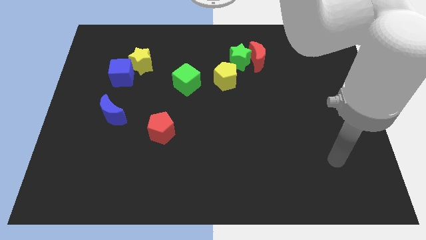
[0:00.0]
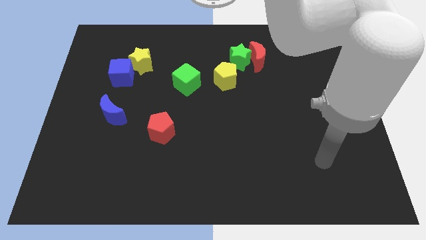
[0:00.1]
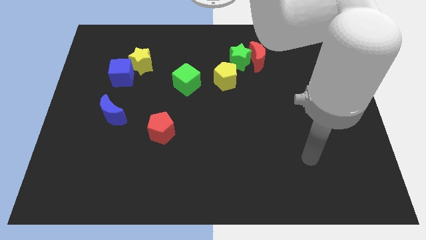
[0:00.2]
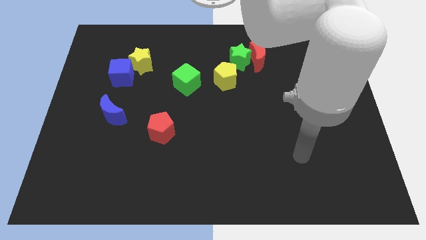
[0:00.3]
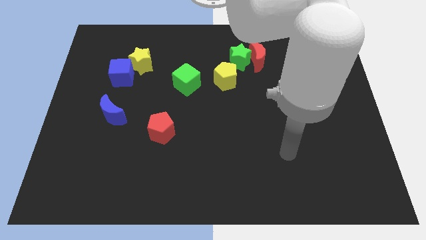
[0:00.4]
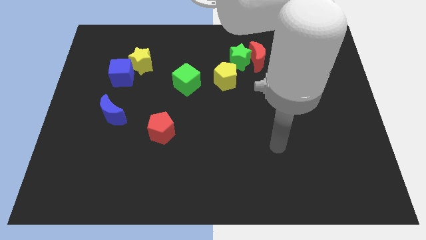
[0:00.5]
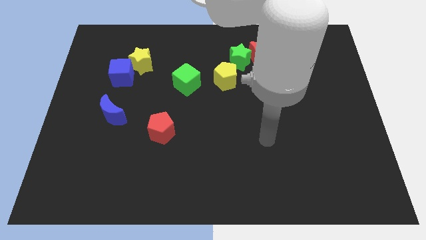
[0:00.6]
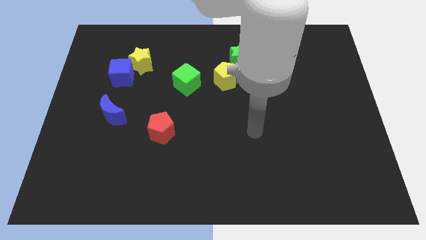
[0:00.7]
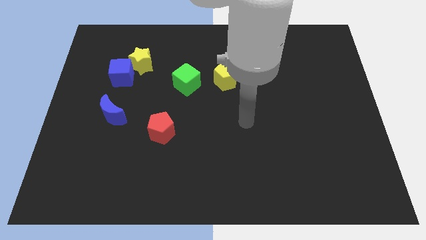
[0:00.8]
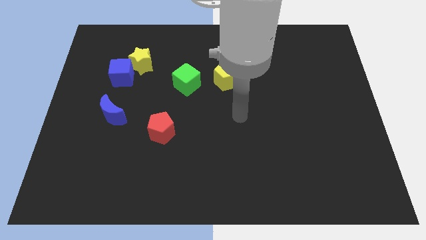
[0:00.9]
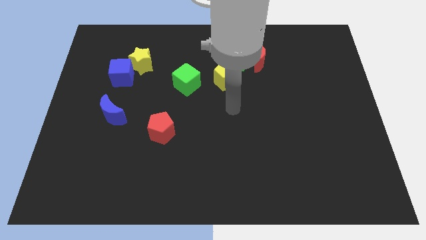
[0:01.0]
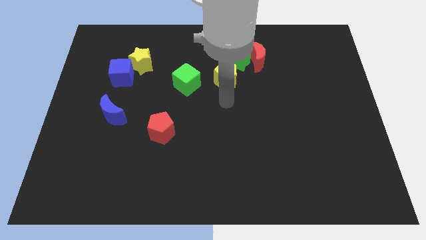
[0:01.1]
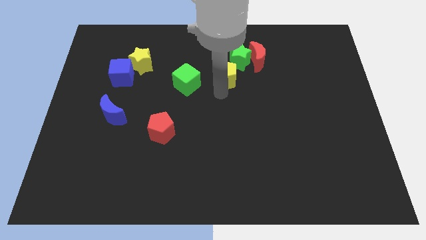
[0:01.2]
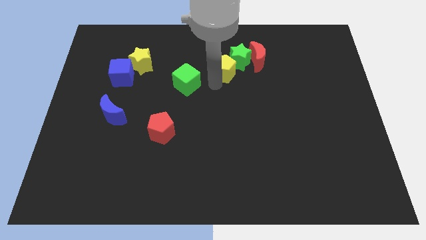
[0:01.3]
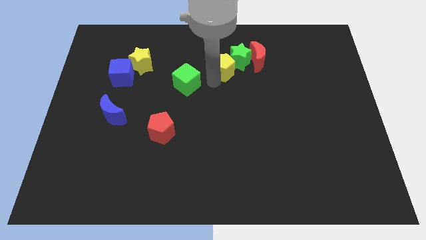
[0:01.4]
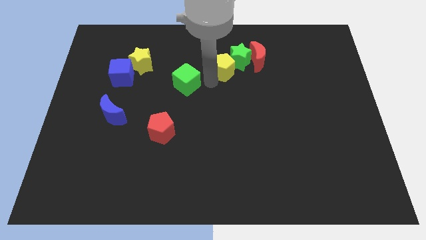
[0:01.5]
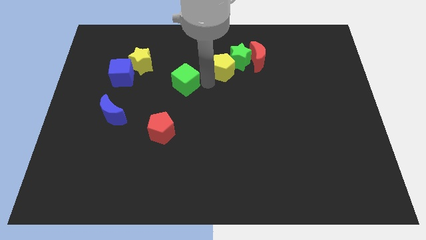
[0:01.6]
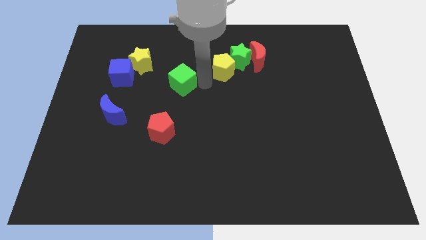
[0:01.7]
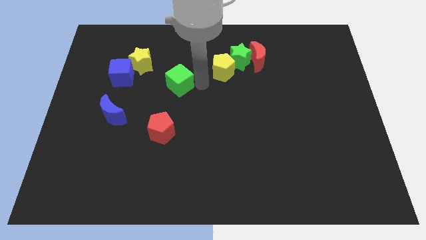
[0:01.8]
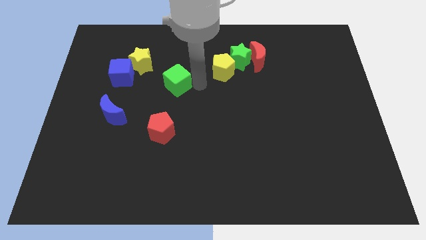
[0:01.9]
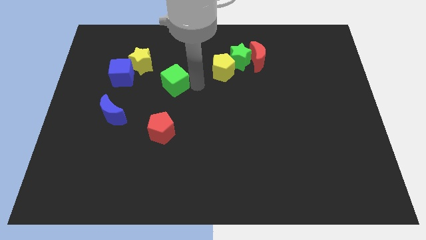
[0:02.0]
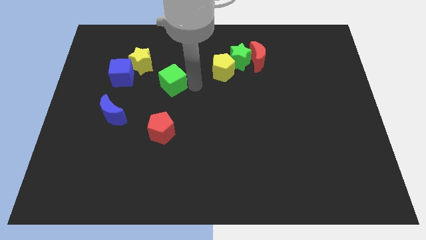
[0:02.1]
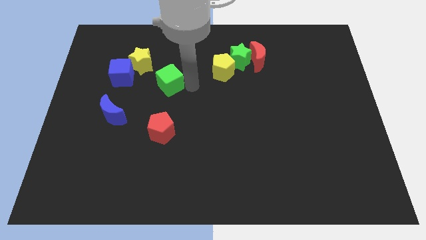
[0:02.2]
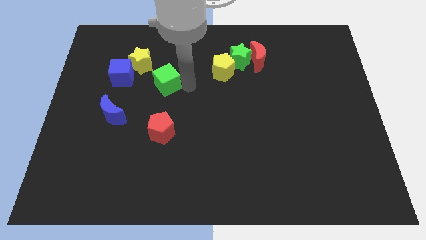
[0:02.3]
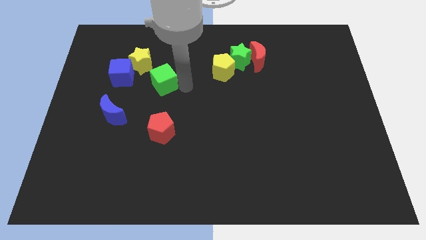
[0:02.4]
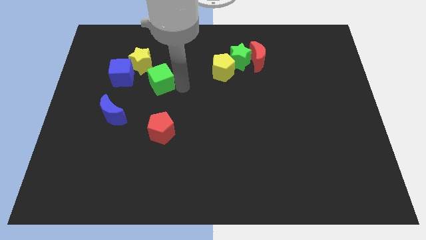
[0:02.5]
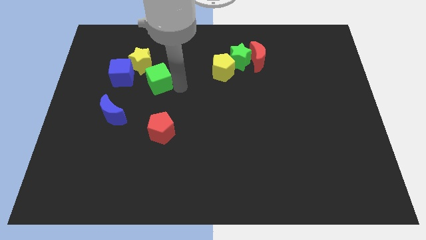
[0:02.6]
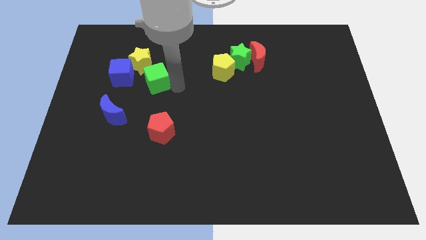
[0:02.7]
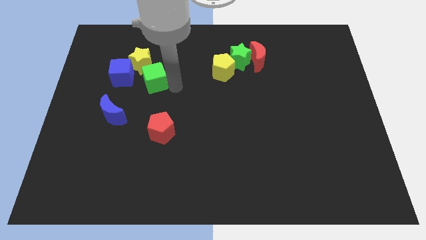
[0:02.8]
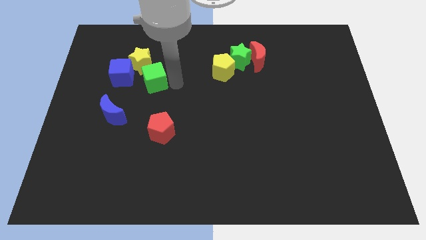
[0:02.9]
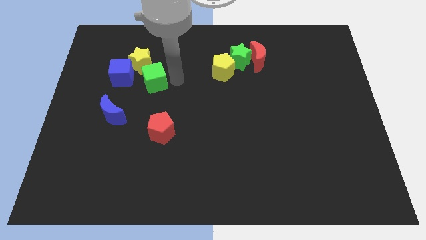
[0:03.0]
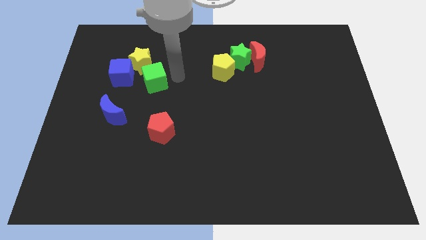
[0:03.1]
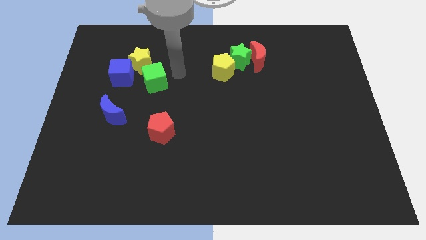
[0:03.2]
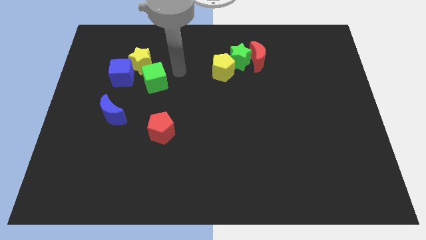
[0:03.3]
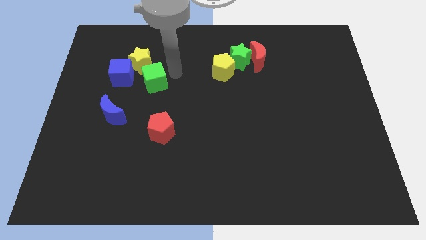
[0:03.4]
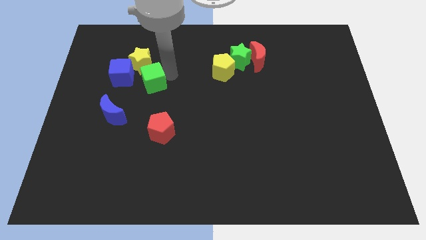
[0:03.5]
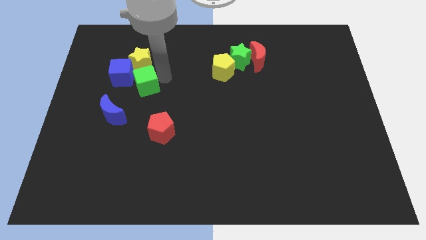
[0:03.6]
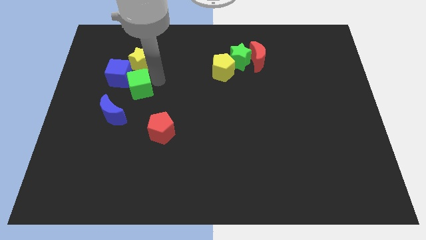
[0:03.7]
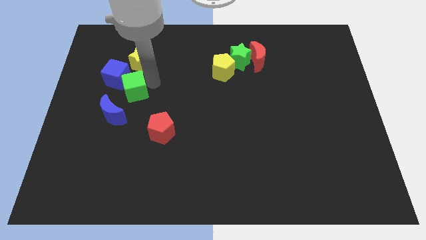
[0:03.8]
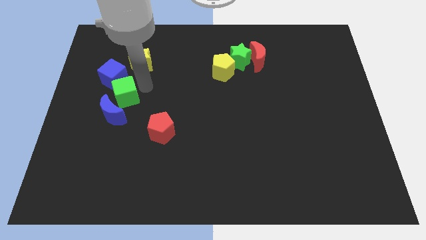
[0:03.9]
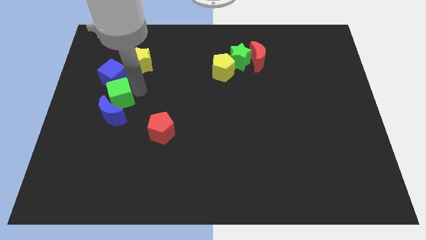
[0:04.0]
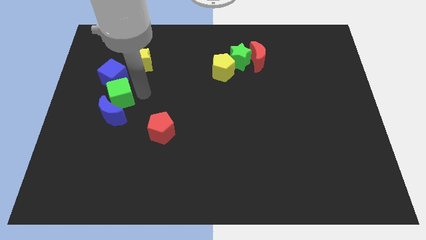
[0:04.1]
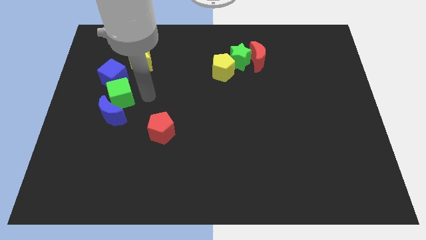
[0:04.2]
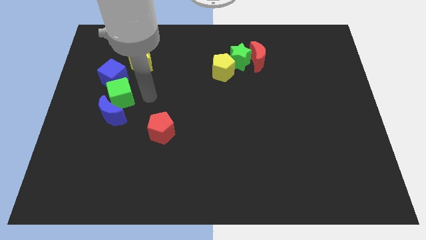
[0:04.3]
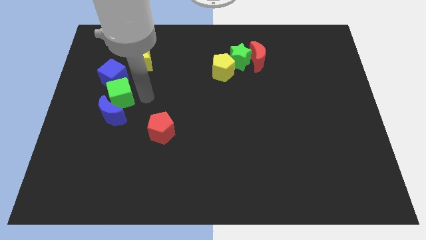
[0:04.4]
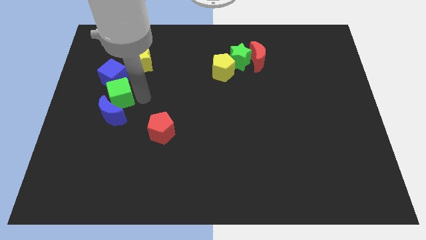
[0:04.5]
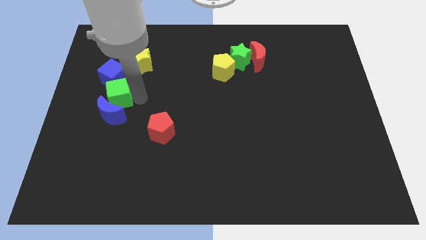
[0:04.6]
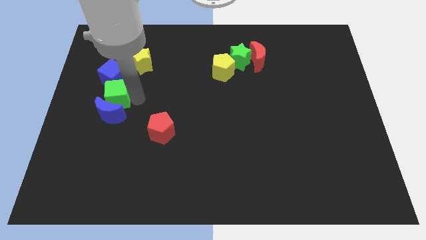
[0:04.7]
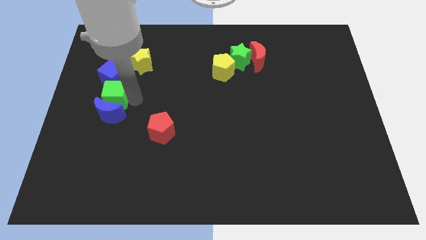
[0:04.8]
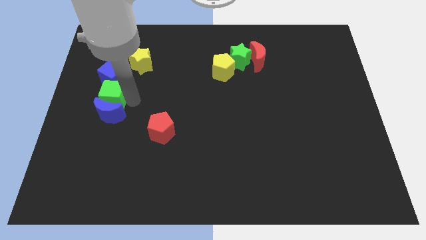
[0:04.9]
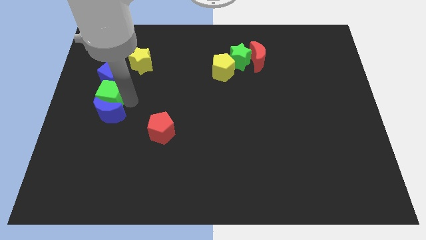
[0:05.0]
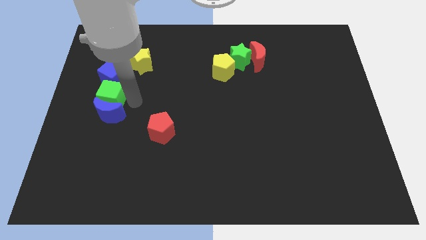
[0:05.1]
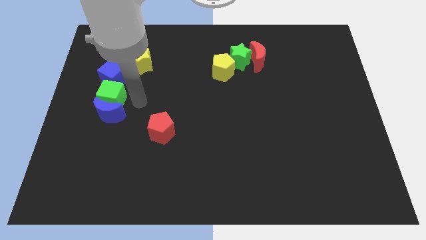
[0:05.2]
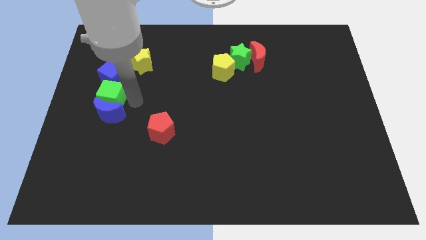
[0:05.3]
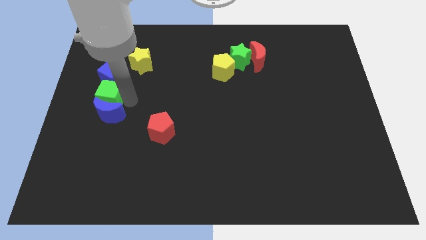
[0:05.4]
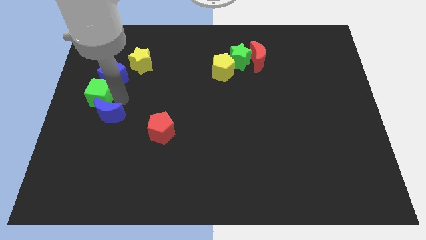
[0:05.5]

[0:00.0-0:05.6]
slide the green cube to the left side of the board

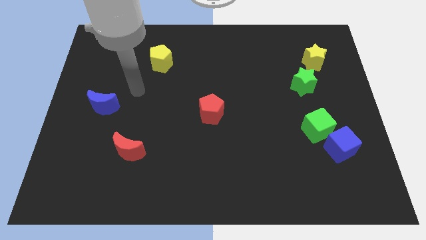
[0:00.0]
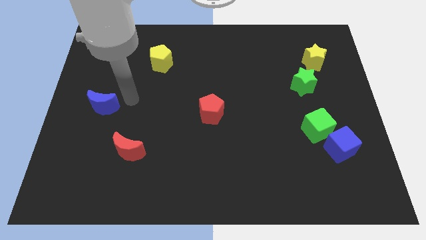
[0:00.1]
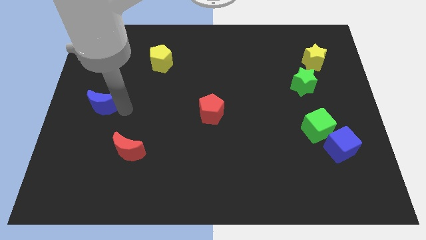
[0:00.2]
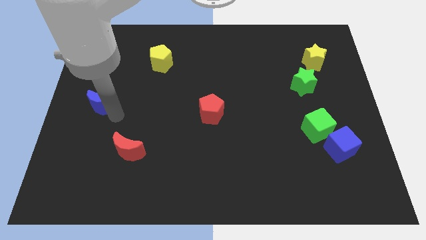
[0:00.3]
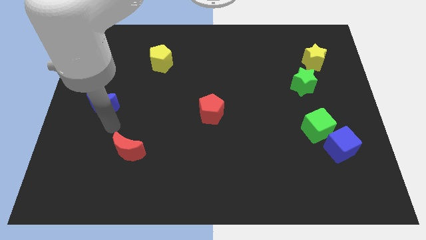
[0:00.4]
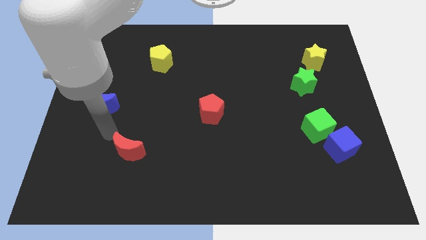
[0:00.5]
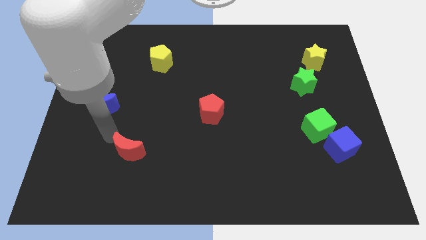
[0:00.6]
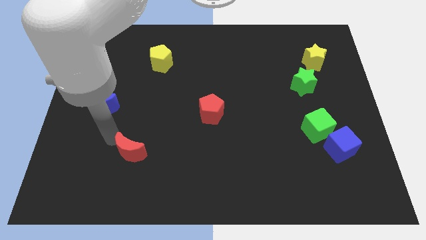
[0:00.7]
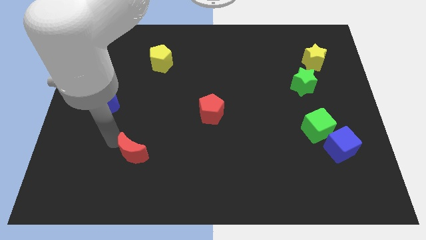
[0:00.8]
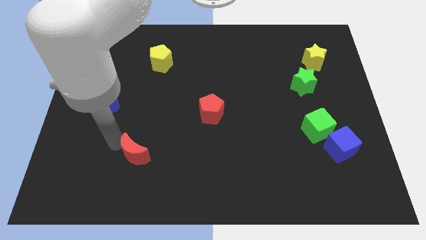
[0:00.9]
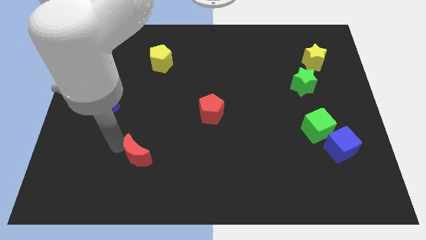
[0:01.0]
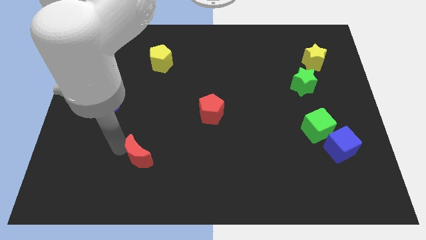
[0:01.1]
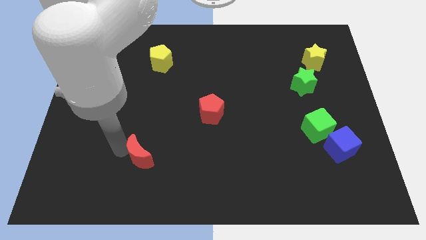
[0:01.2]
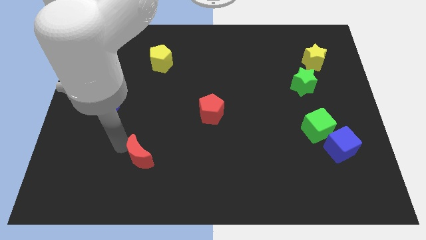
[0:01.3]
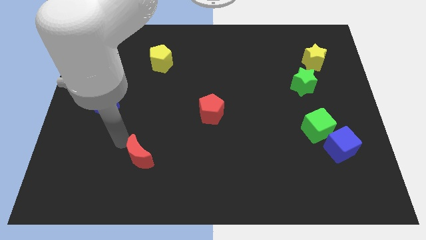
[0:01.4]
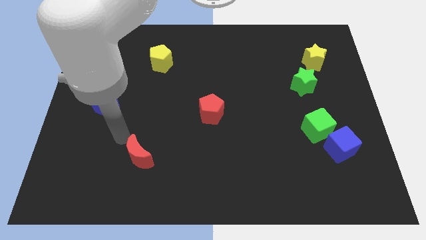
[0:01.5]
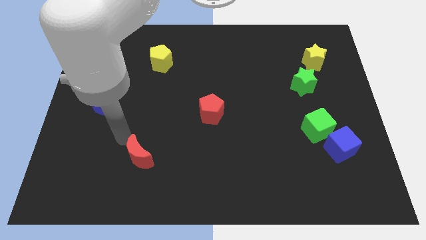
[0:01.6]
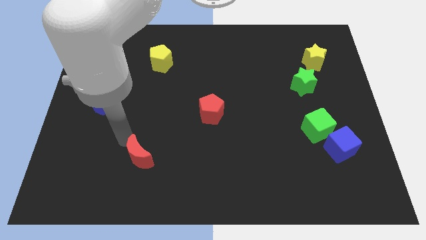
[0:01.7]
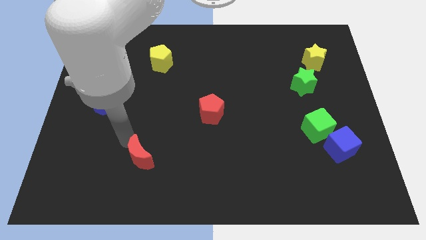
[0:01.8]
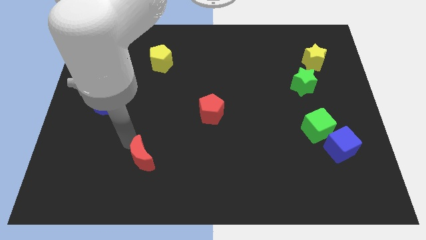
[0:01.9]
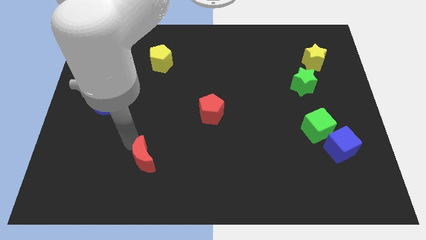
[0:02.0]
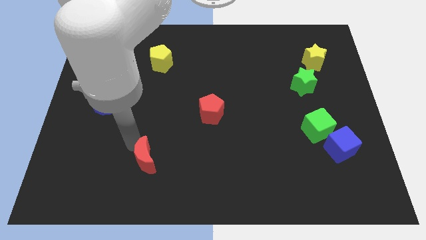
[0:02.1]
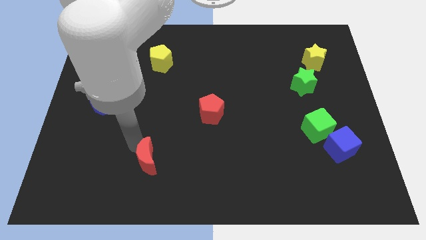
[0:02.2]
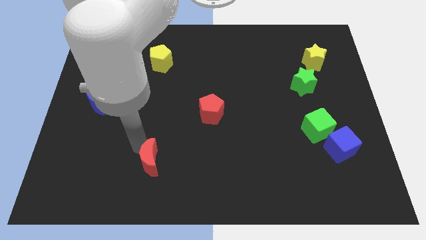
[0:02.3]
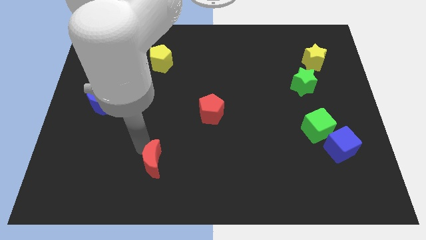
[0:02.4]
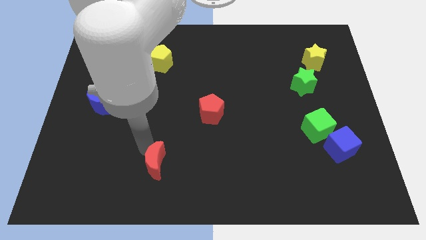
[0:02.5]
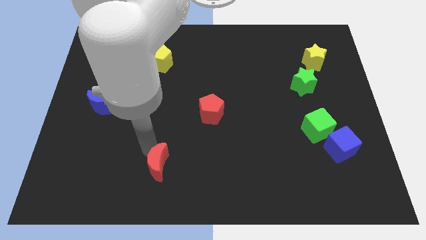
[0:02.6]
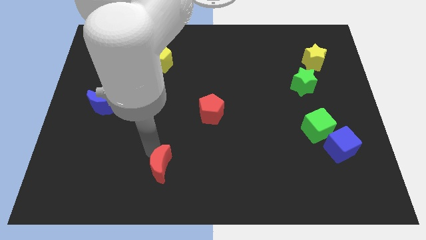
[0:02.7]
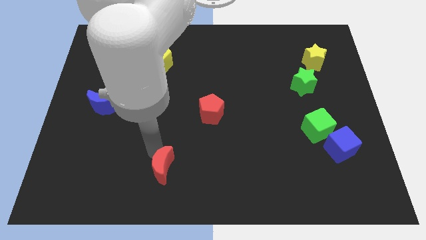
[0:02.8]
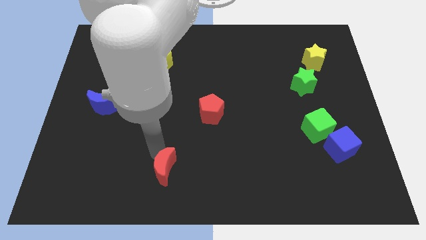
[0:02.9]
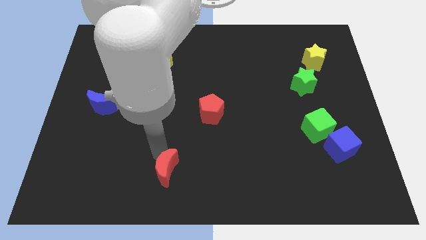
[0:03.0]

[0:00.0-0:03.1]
move the red moon to the bottom
